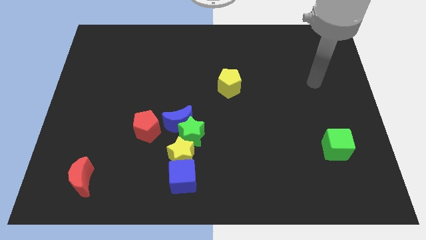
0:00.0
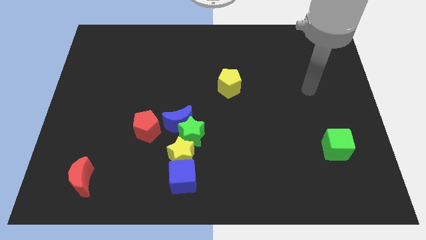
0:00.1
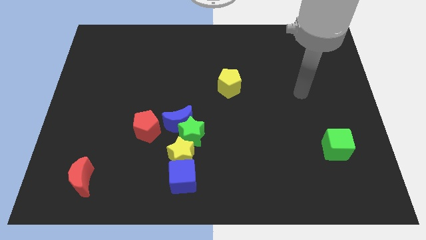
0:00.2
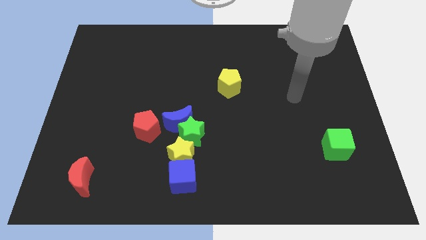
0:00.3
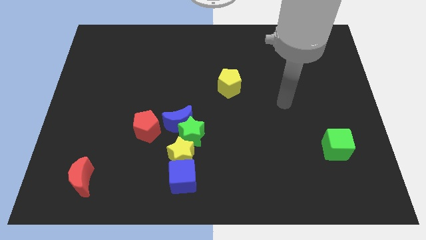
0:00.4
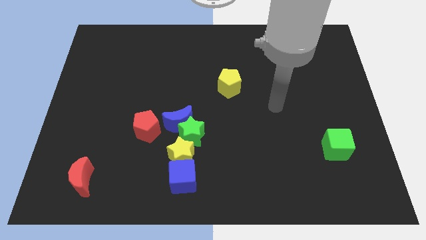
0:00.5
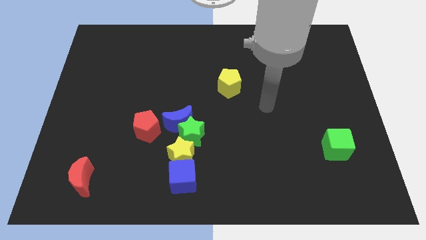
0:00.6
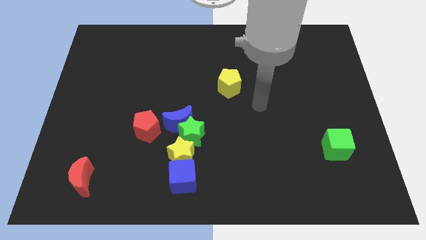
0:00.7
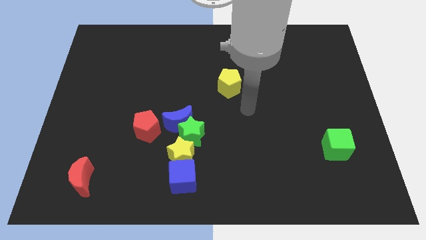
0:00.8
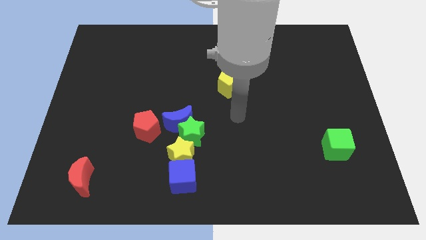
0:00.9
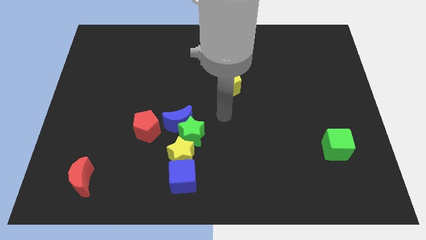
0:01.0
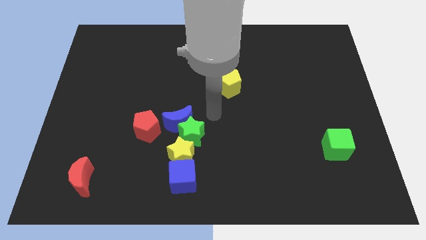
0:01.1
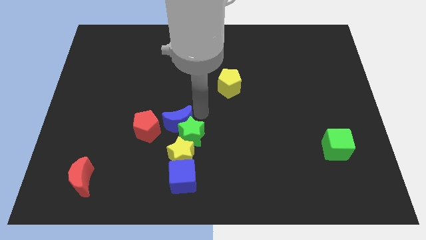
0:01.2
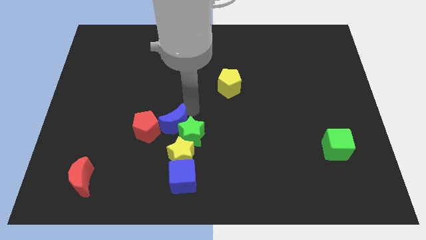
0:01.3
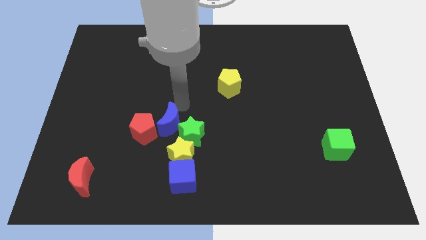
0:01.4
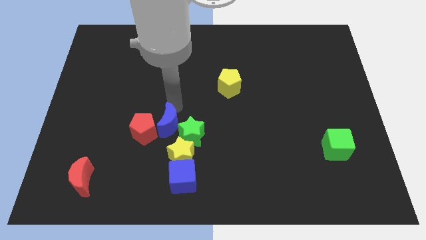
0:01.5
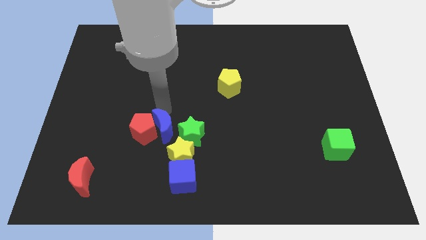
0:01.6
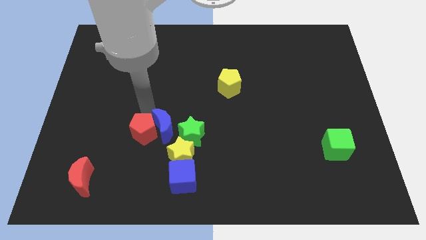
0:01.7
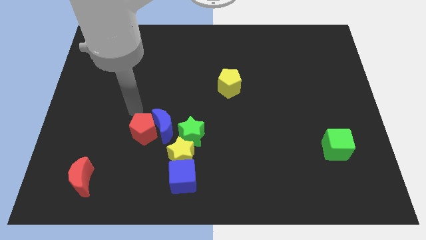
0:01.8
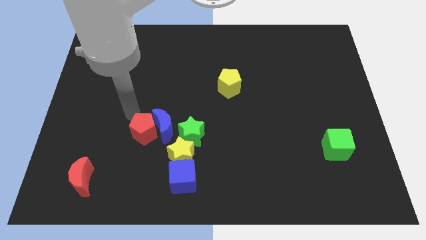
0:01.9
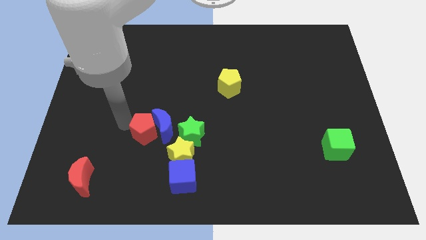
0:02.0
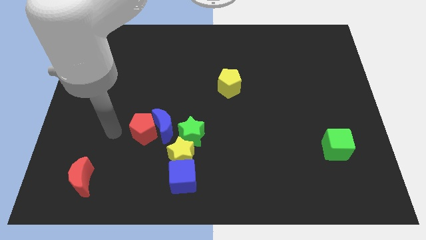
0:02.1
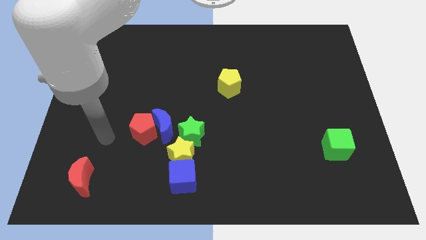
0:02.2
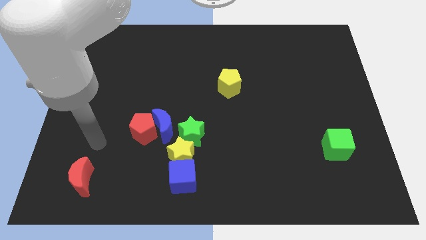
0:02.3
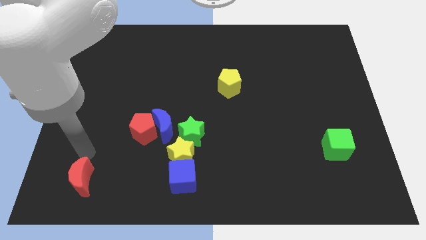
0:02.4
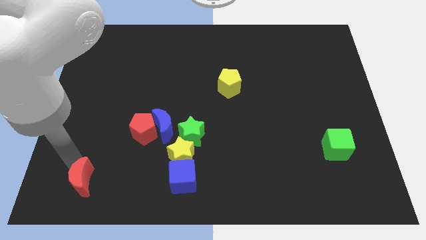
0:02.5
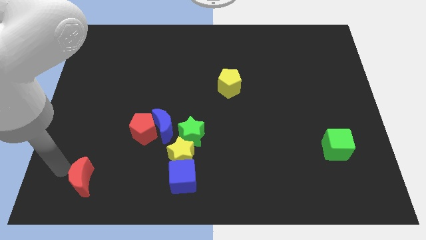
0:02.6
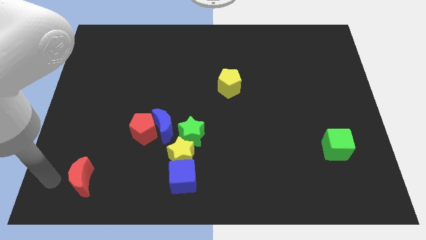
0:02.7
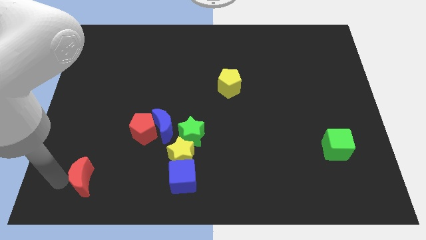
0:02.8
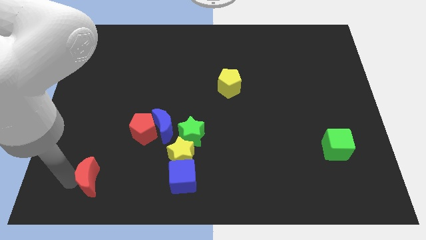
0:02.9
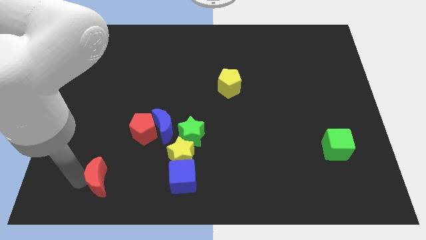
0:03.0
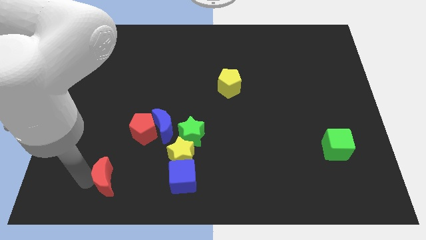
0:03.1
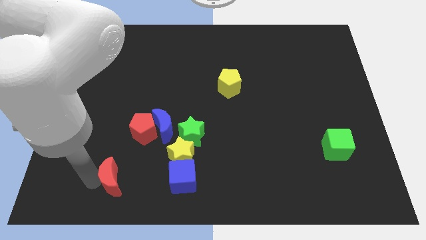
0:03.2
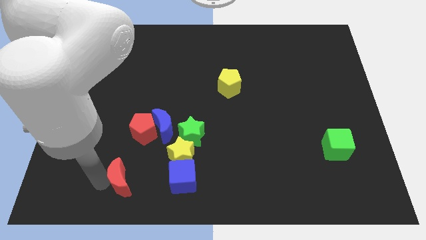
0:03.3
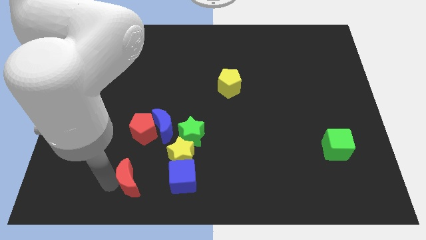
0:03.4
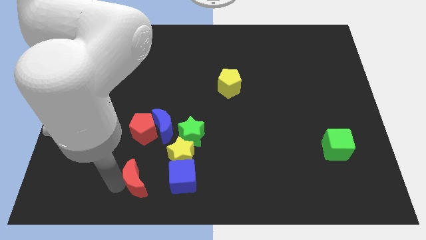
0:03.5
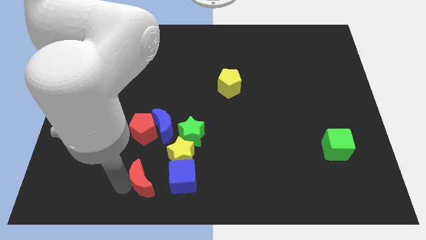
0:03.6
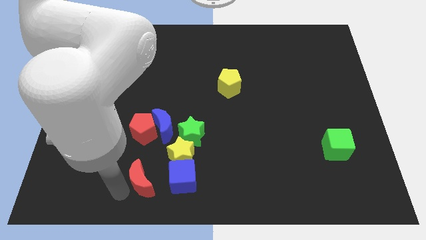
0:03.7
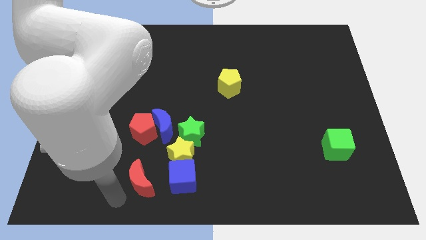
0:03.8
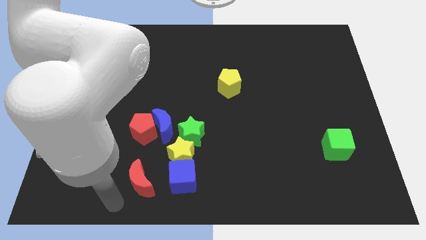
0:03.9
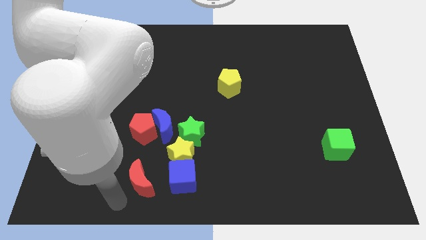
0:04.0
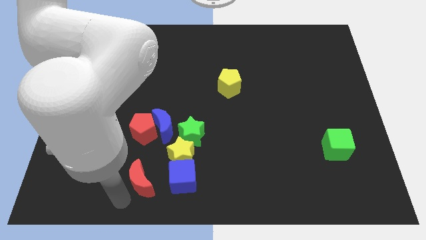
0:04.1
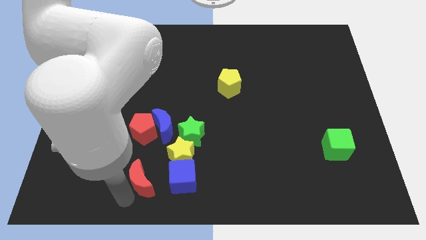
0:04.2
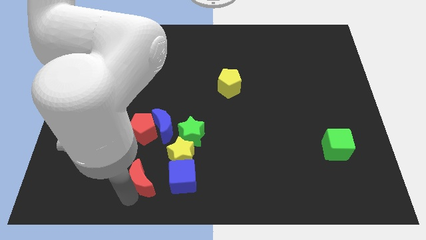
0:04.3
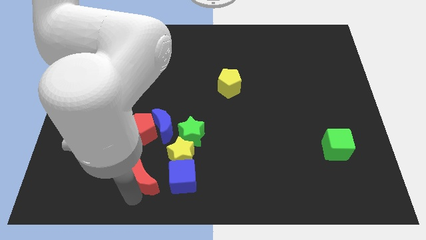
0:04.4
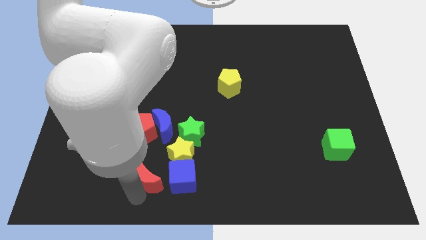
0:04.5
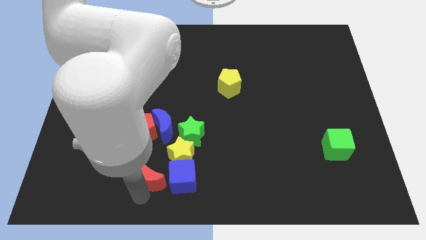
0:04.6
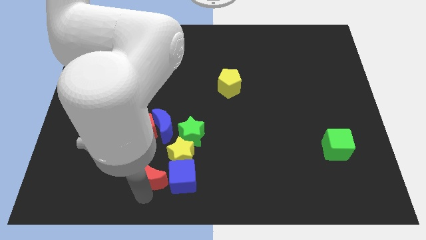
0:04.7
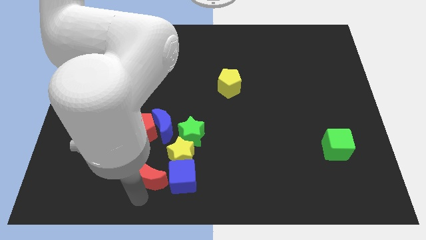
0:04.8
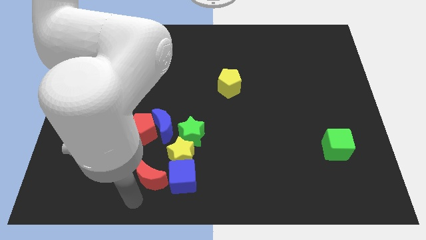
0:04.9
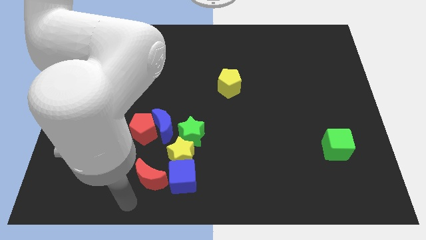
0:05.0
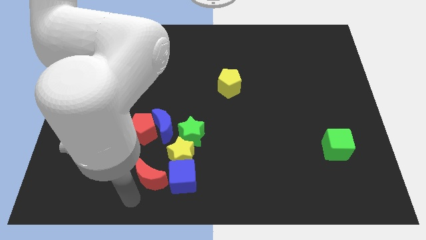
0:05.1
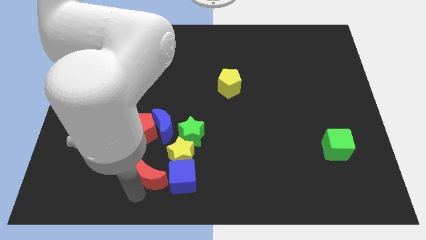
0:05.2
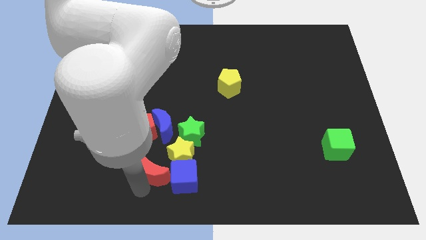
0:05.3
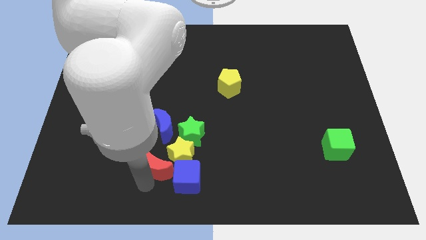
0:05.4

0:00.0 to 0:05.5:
slide the red moon close to the yellow star

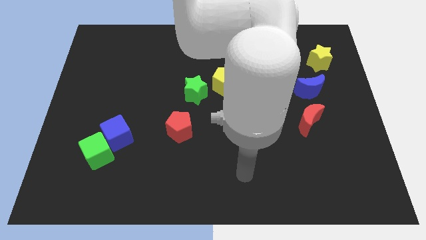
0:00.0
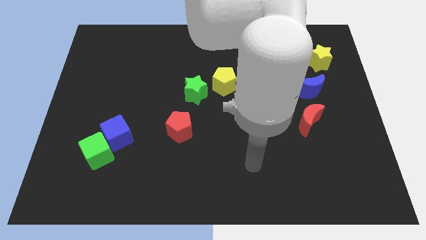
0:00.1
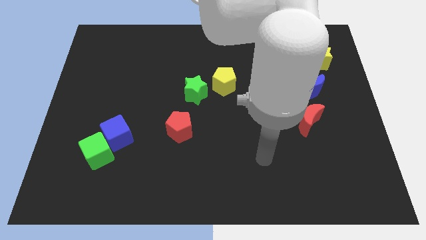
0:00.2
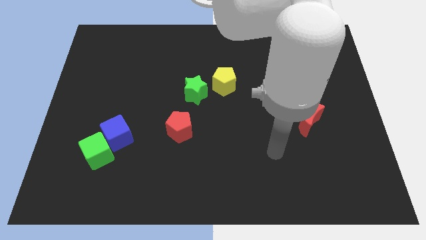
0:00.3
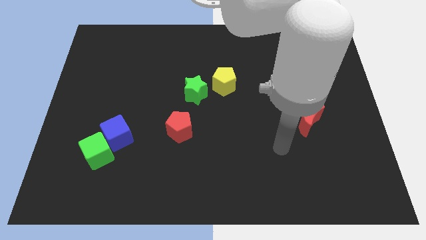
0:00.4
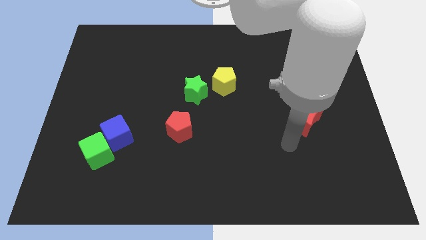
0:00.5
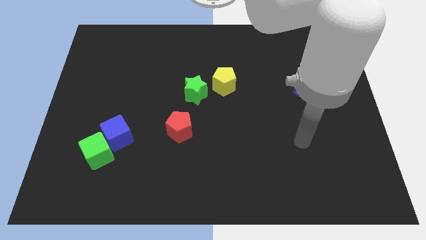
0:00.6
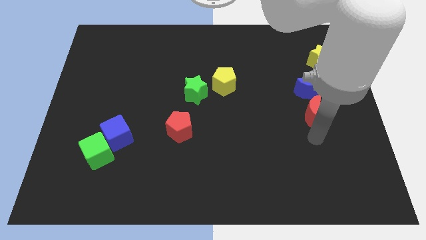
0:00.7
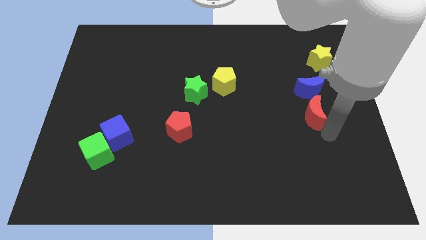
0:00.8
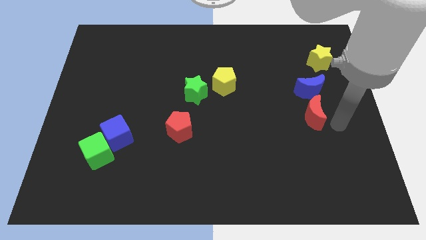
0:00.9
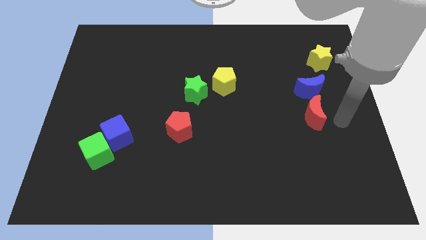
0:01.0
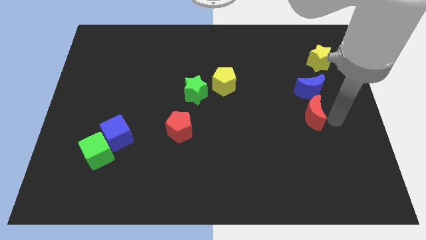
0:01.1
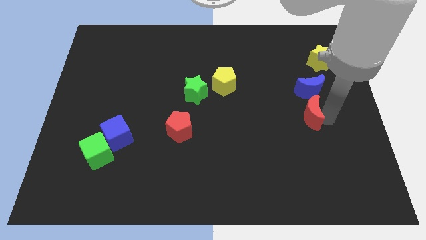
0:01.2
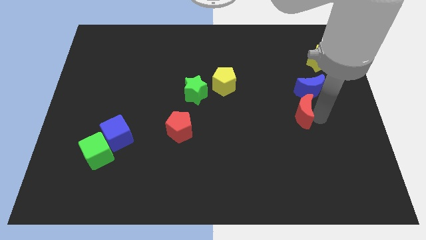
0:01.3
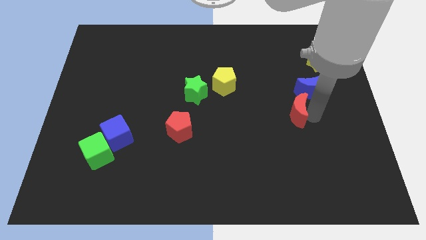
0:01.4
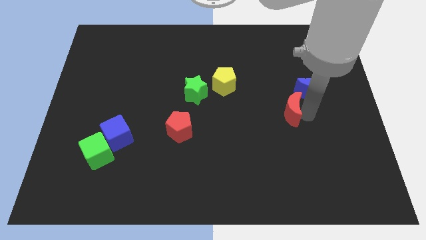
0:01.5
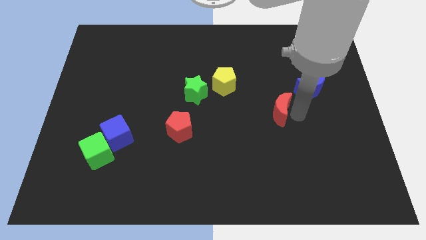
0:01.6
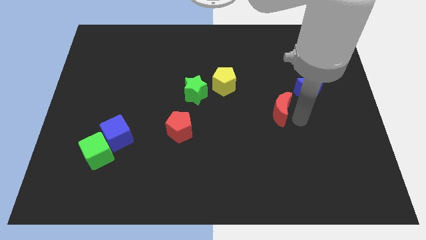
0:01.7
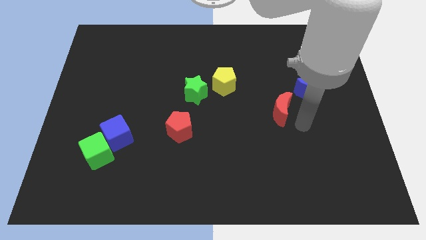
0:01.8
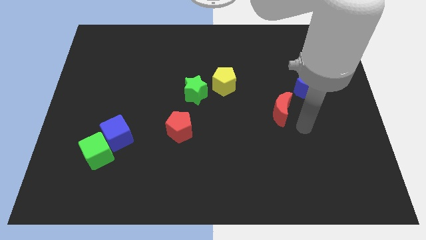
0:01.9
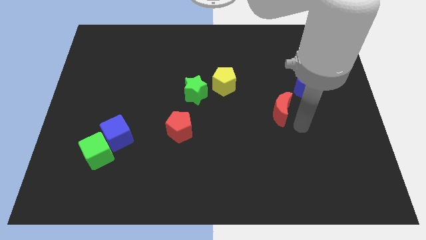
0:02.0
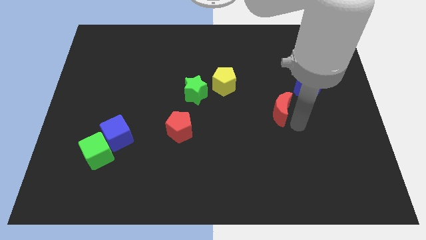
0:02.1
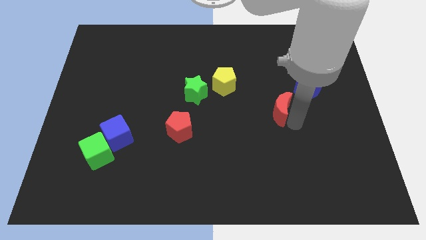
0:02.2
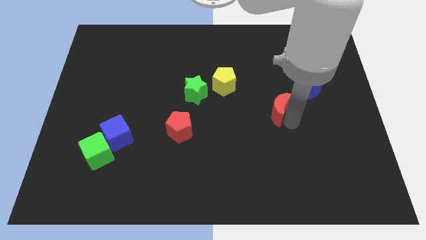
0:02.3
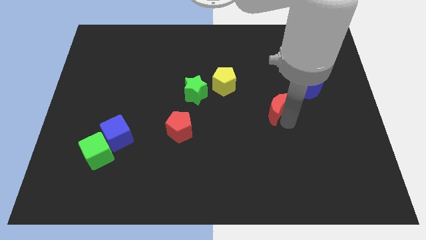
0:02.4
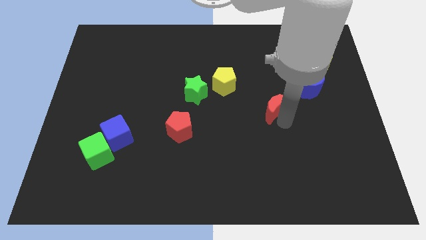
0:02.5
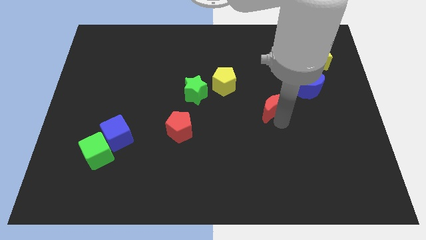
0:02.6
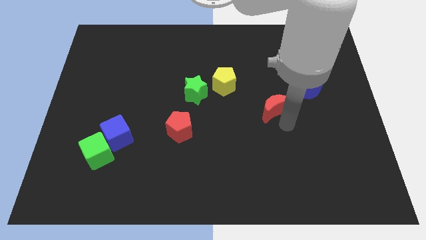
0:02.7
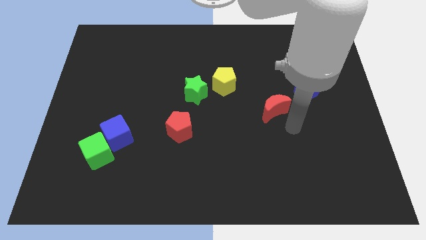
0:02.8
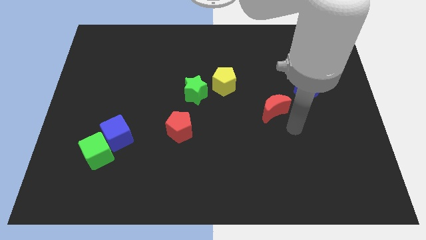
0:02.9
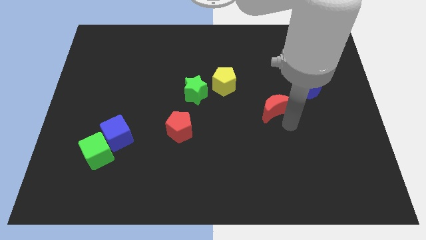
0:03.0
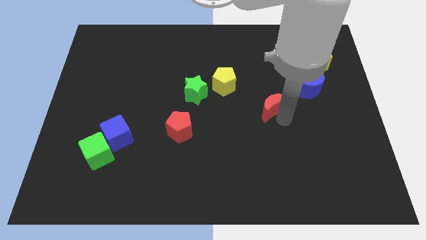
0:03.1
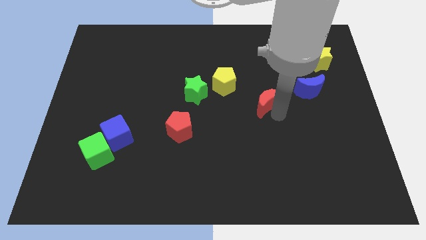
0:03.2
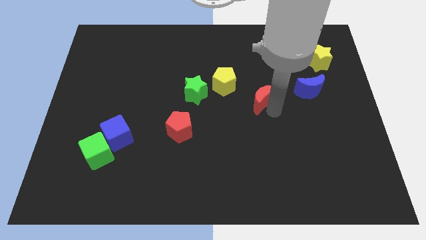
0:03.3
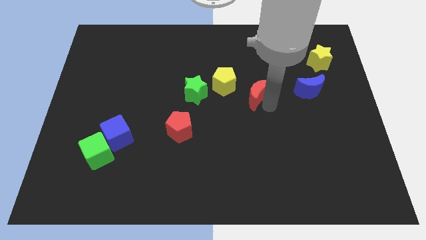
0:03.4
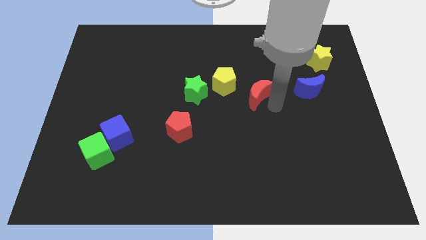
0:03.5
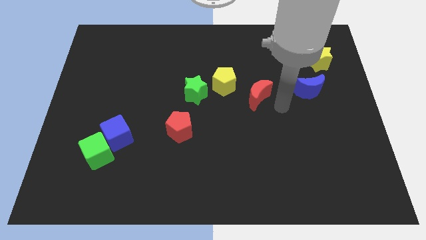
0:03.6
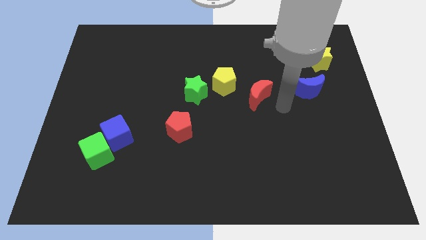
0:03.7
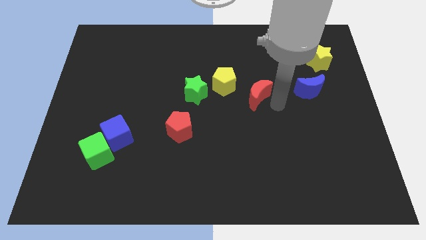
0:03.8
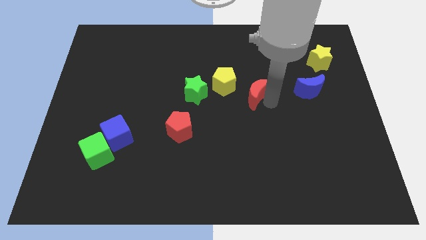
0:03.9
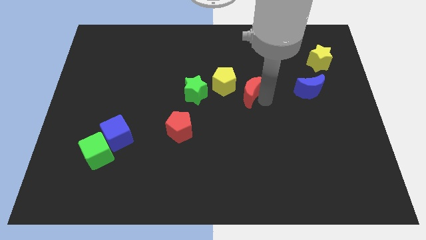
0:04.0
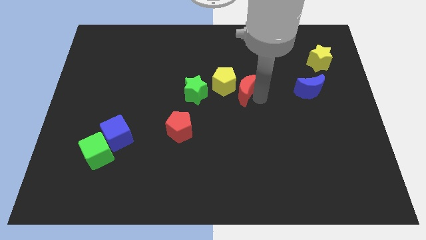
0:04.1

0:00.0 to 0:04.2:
move the red moon to the yellow pentagon
